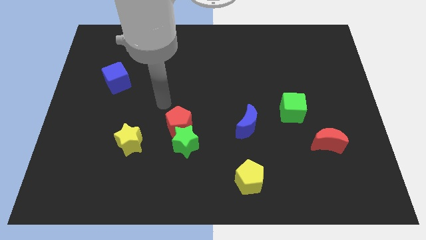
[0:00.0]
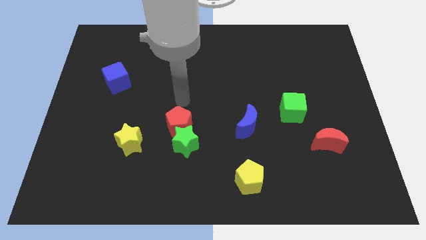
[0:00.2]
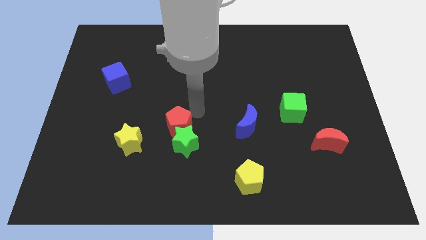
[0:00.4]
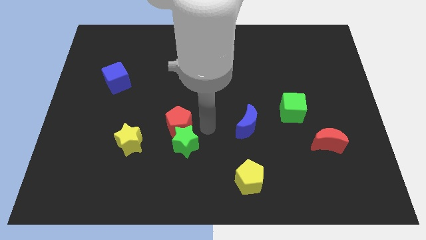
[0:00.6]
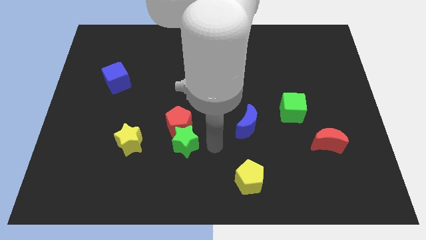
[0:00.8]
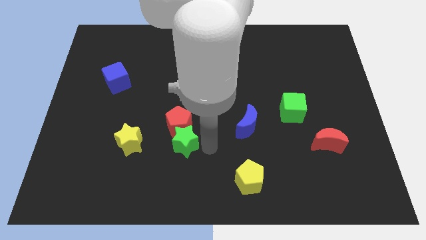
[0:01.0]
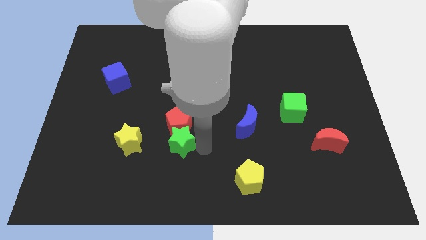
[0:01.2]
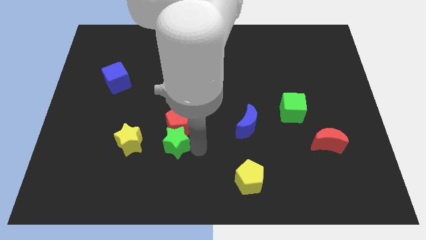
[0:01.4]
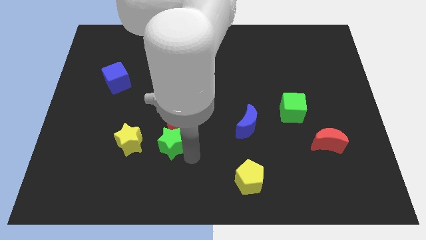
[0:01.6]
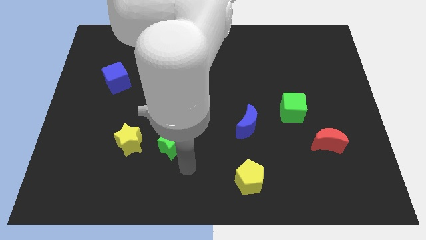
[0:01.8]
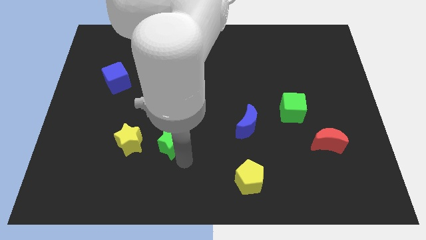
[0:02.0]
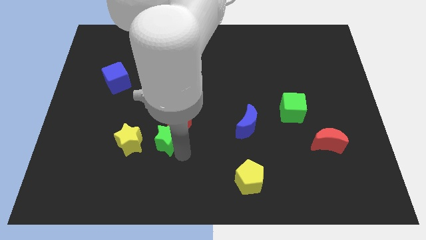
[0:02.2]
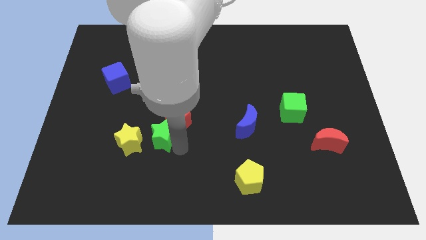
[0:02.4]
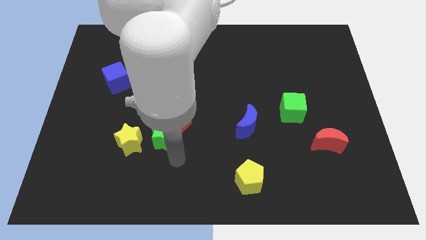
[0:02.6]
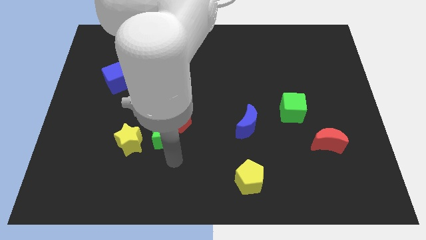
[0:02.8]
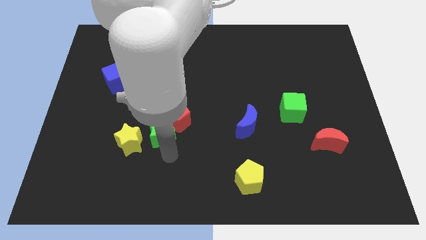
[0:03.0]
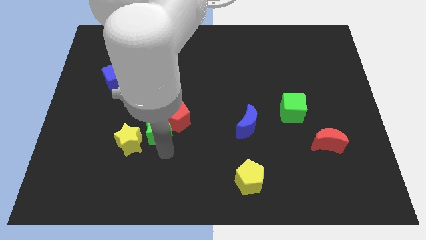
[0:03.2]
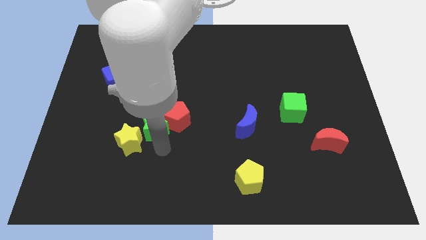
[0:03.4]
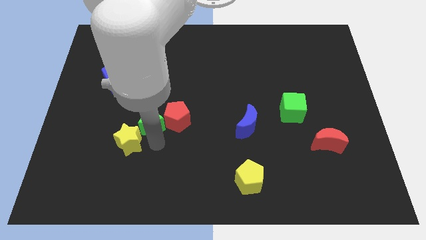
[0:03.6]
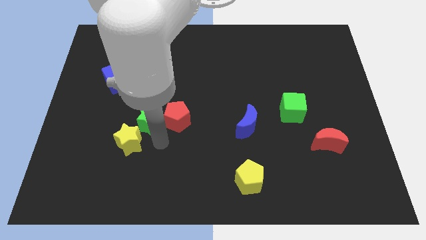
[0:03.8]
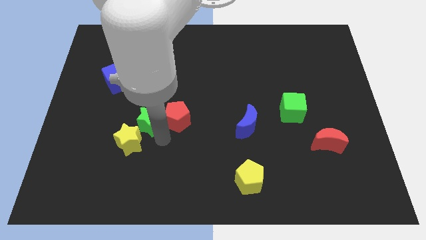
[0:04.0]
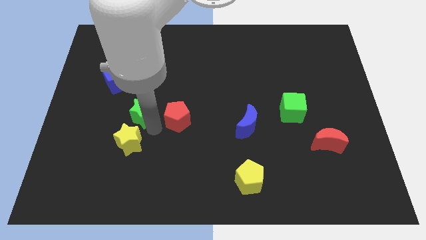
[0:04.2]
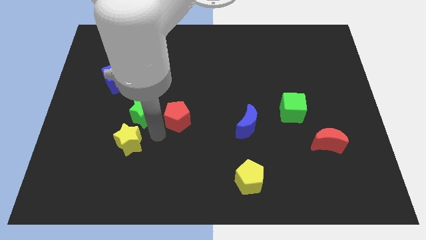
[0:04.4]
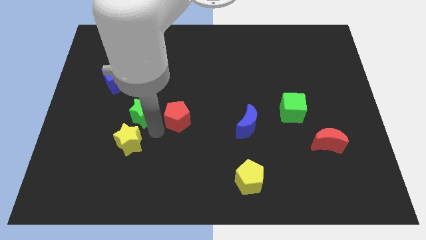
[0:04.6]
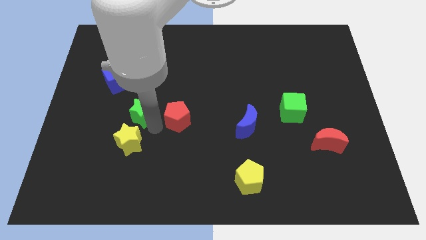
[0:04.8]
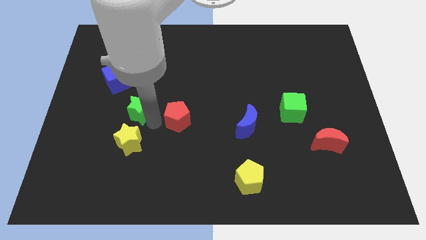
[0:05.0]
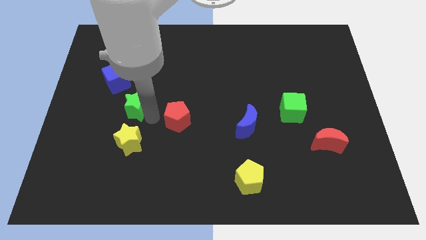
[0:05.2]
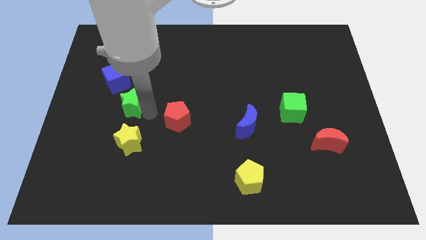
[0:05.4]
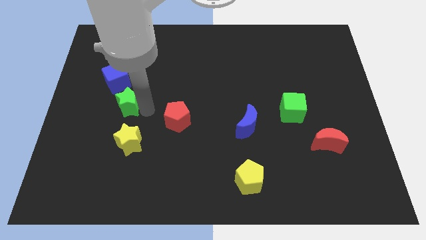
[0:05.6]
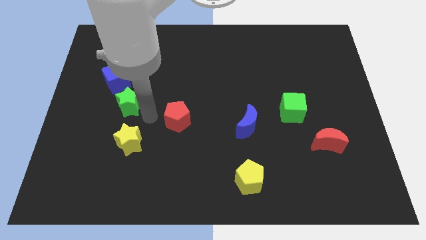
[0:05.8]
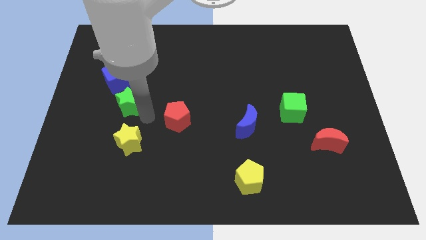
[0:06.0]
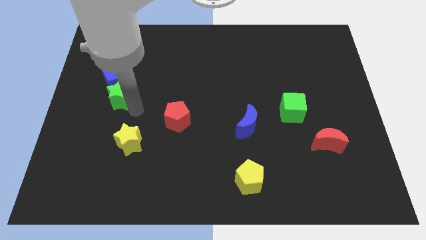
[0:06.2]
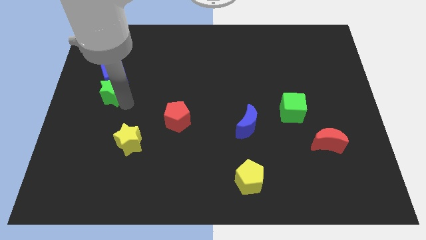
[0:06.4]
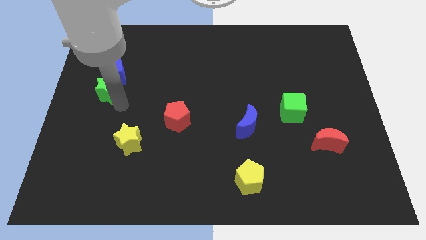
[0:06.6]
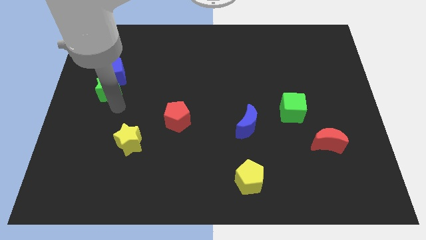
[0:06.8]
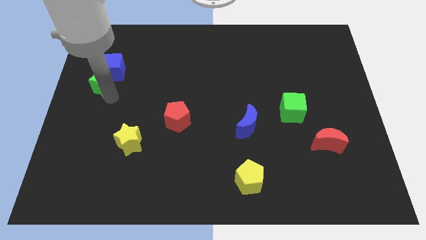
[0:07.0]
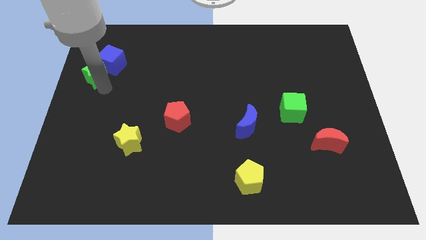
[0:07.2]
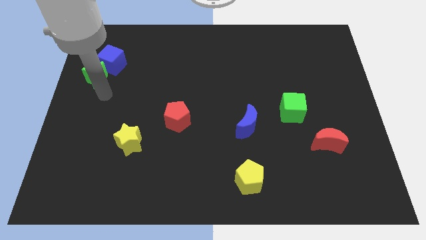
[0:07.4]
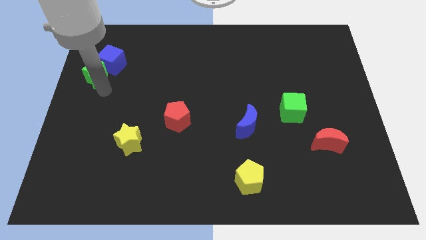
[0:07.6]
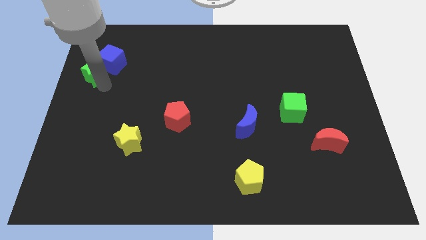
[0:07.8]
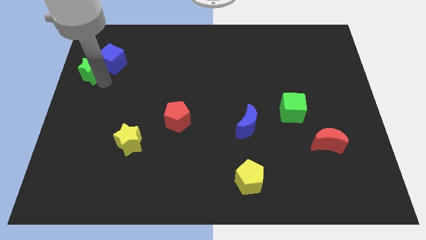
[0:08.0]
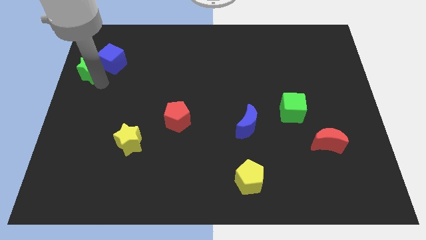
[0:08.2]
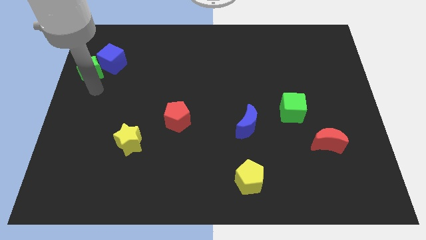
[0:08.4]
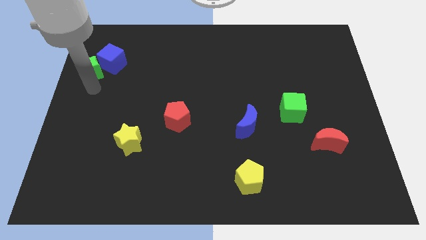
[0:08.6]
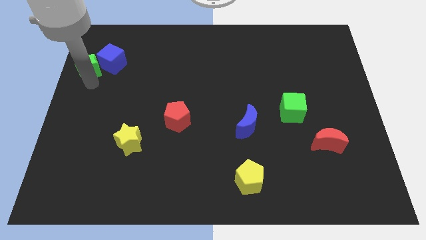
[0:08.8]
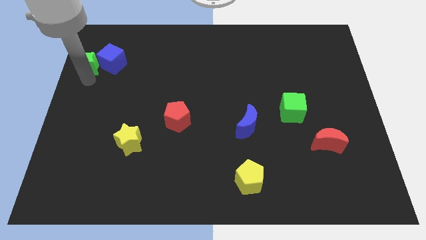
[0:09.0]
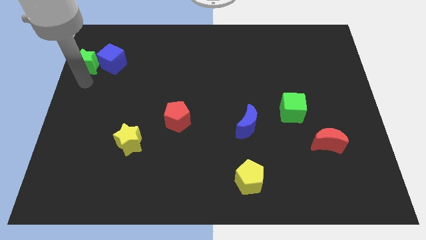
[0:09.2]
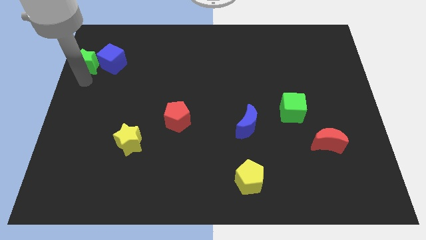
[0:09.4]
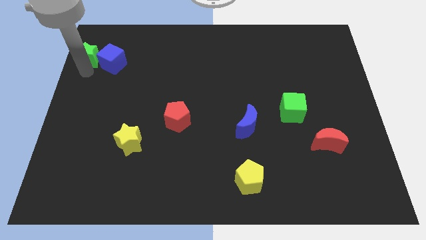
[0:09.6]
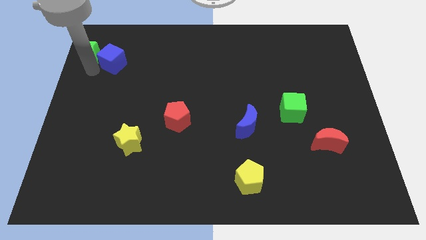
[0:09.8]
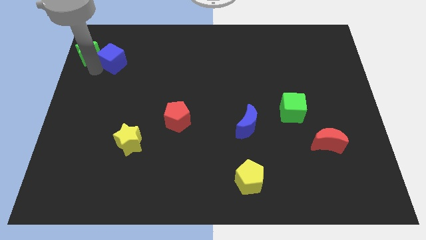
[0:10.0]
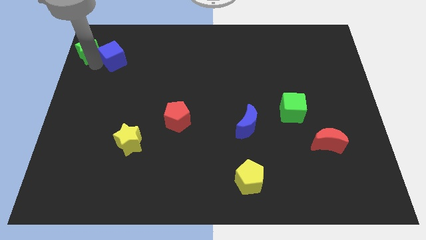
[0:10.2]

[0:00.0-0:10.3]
move the green star to the top left of the board
